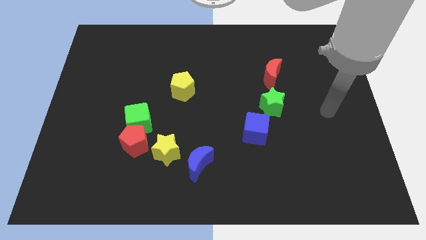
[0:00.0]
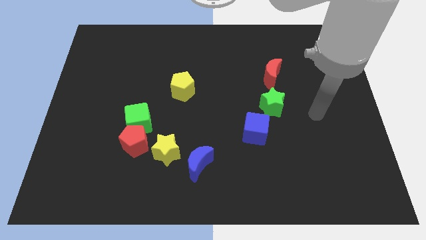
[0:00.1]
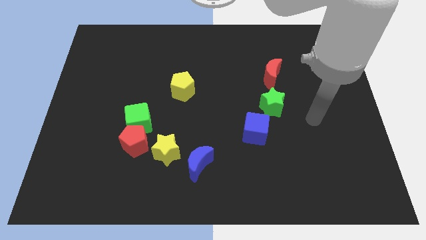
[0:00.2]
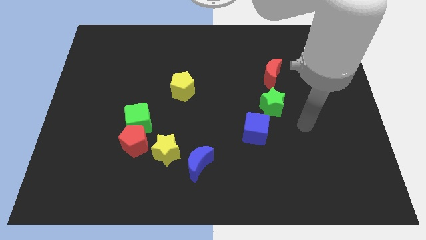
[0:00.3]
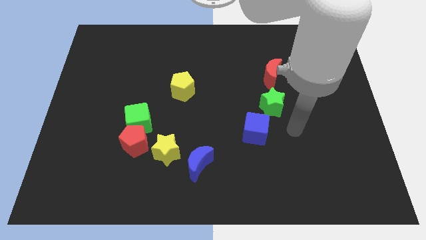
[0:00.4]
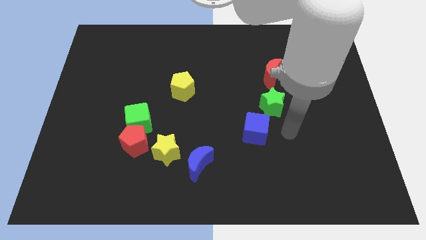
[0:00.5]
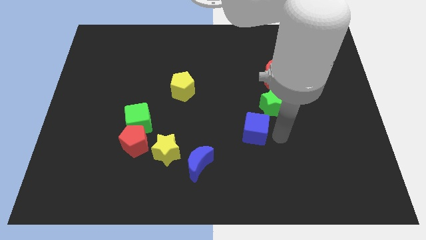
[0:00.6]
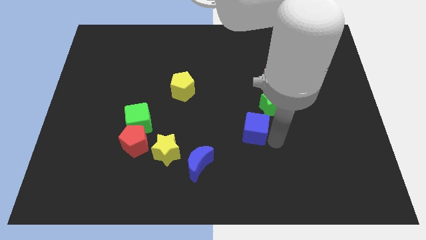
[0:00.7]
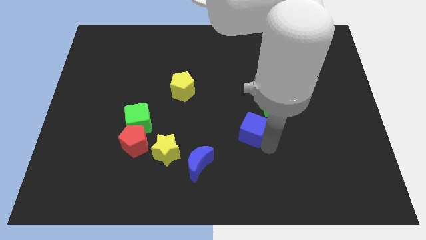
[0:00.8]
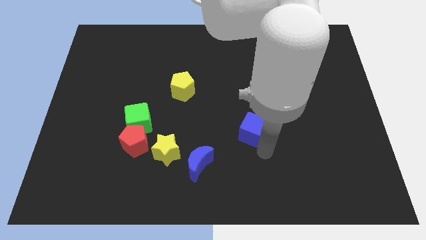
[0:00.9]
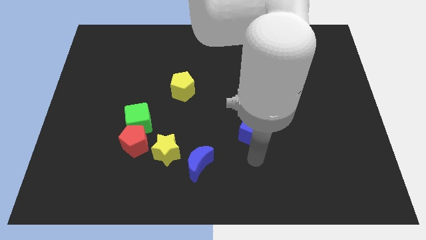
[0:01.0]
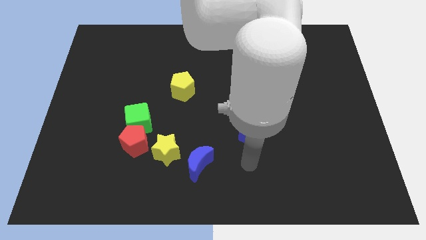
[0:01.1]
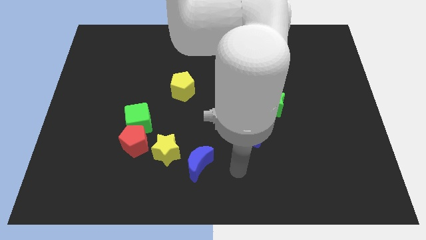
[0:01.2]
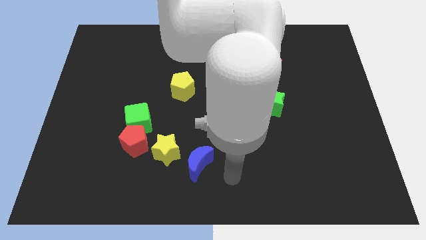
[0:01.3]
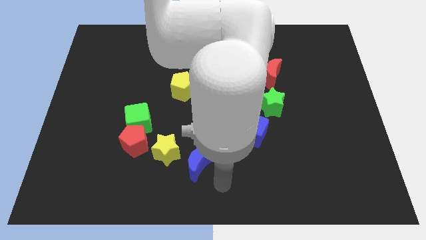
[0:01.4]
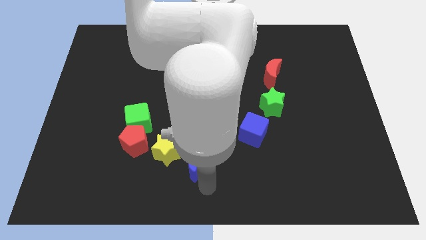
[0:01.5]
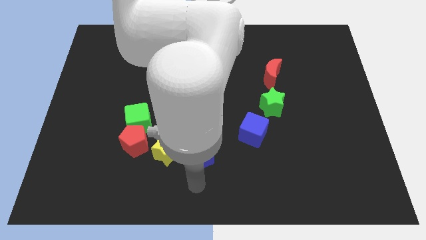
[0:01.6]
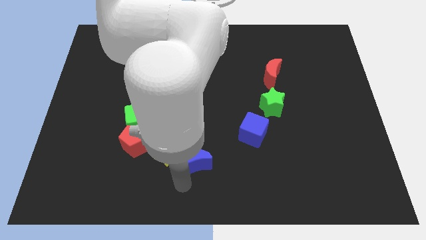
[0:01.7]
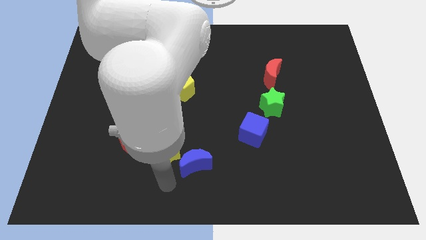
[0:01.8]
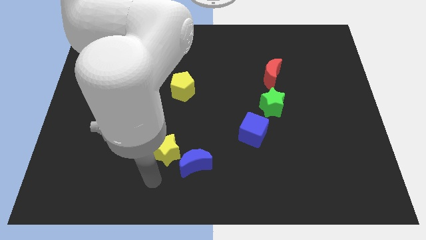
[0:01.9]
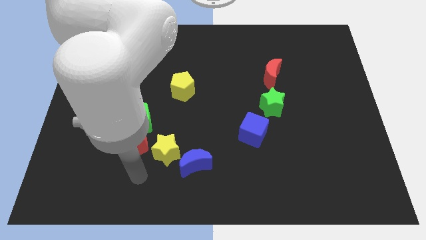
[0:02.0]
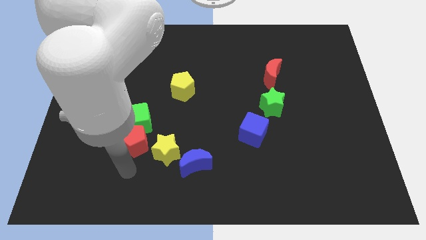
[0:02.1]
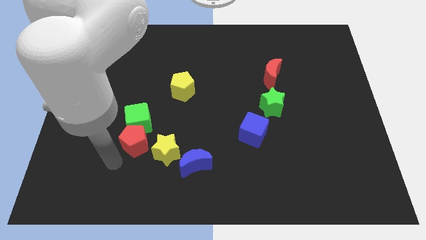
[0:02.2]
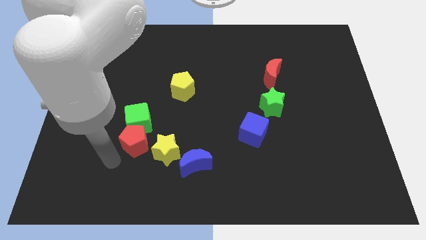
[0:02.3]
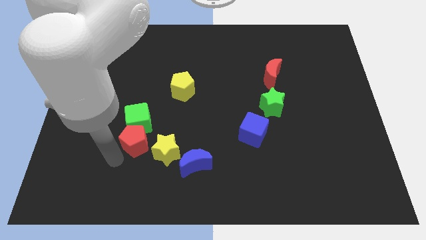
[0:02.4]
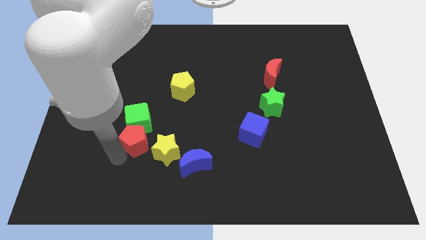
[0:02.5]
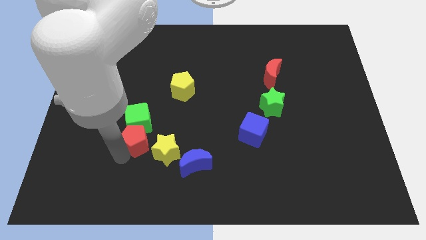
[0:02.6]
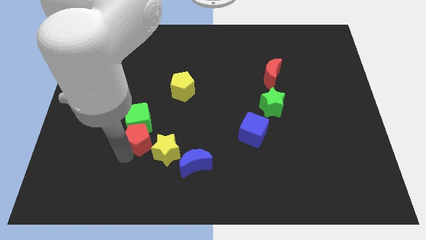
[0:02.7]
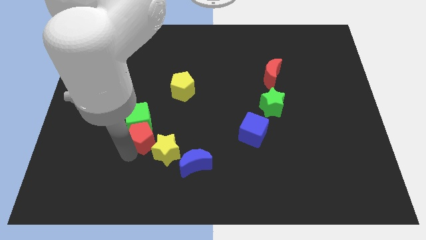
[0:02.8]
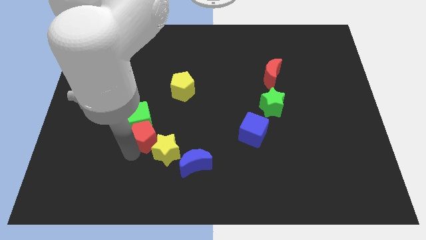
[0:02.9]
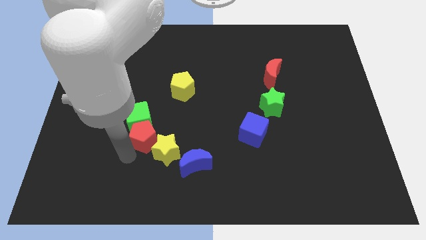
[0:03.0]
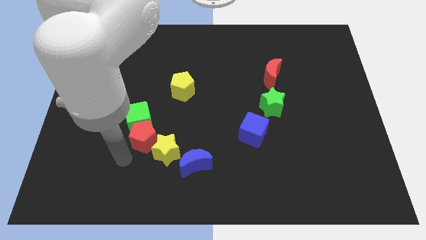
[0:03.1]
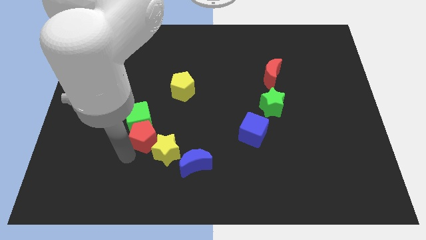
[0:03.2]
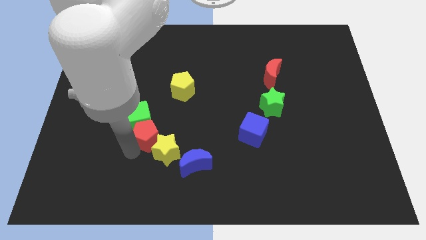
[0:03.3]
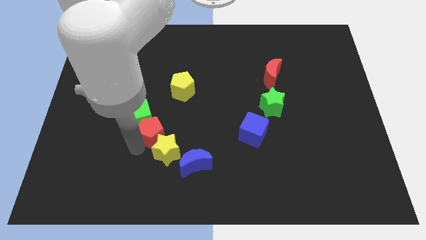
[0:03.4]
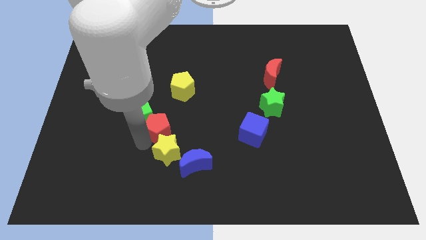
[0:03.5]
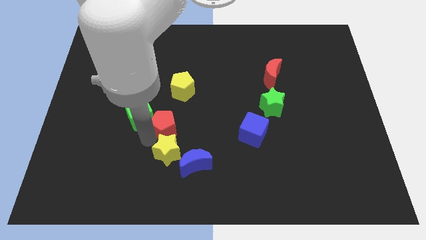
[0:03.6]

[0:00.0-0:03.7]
slightly push the red pentagon up and right

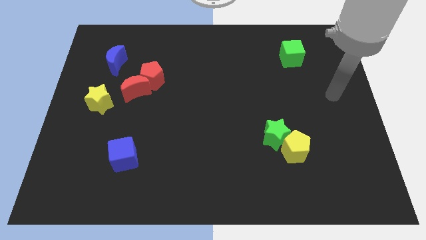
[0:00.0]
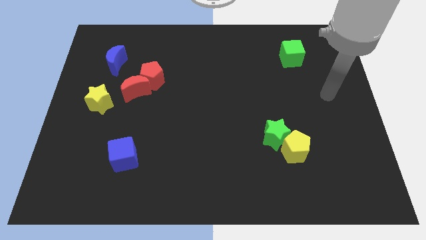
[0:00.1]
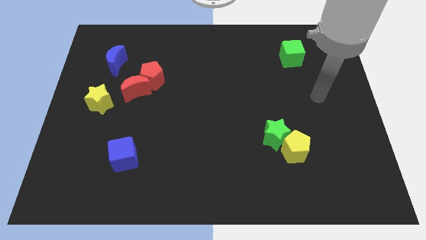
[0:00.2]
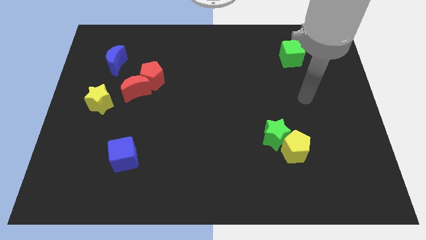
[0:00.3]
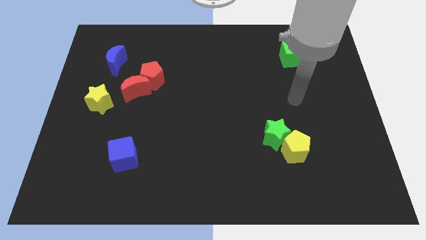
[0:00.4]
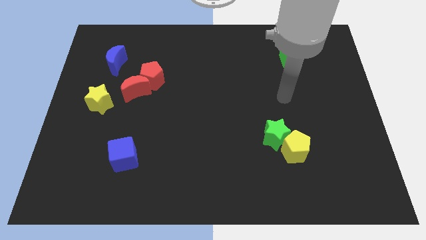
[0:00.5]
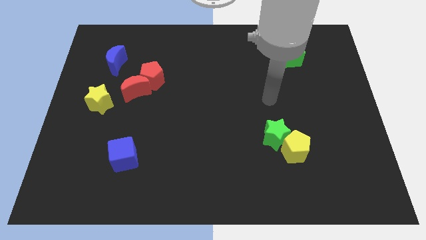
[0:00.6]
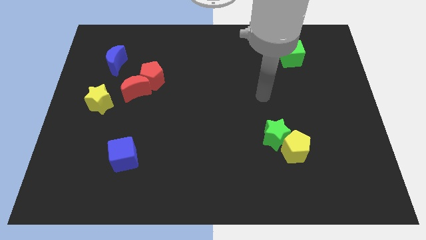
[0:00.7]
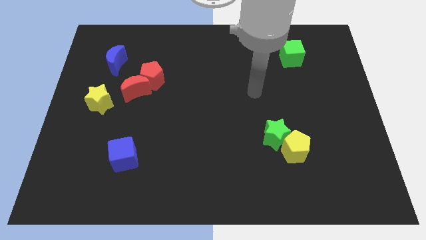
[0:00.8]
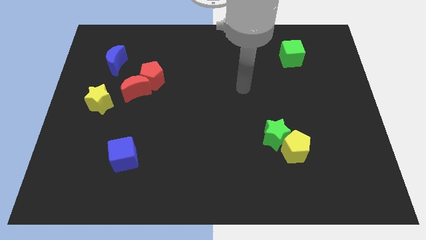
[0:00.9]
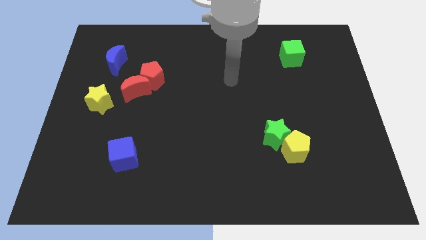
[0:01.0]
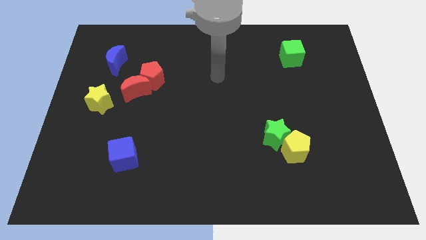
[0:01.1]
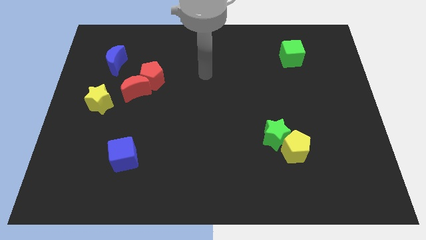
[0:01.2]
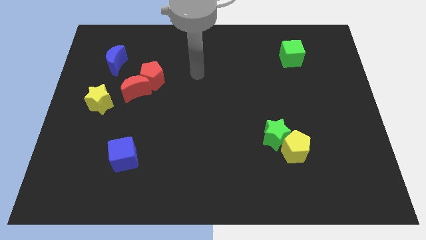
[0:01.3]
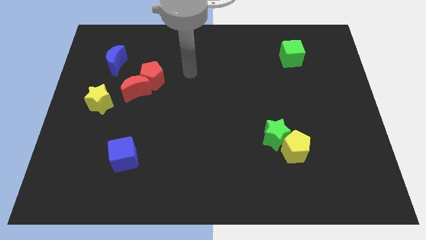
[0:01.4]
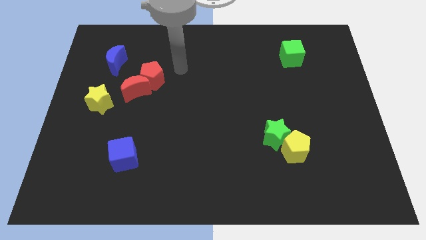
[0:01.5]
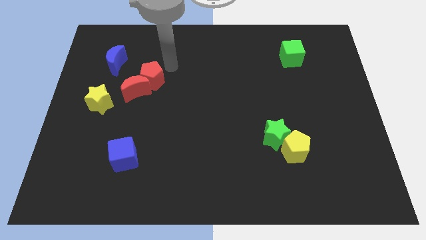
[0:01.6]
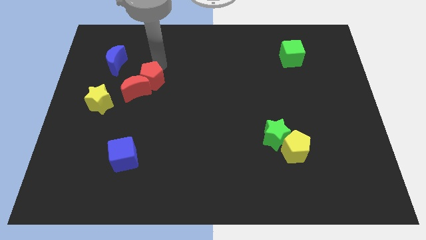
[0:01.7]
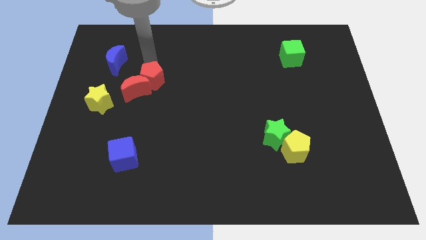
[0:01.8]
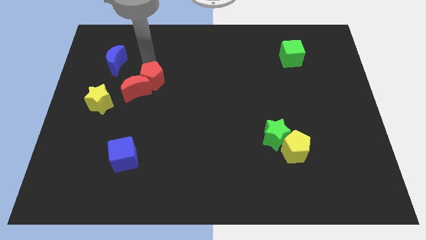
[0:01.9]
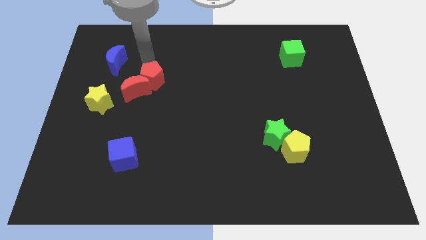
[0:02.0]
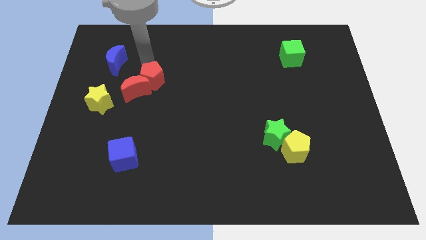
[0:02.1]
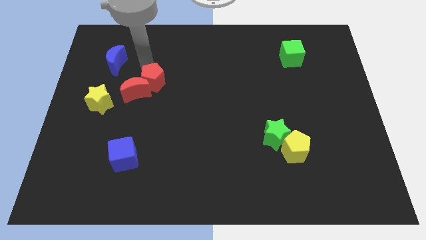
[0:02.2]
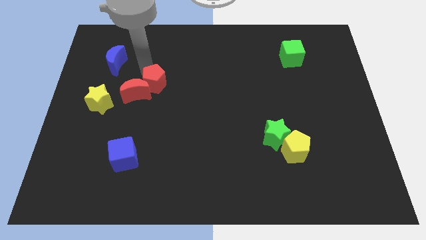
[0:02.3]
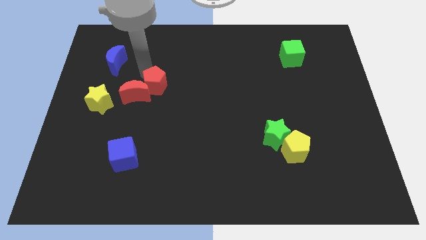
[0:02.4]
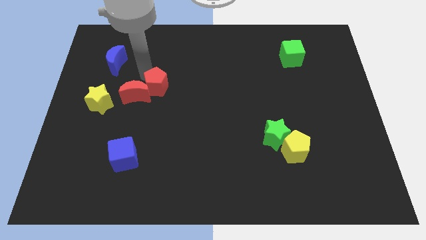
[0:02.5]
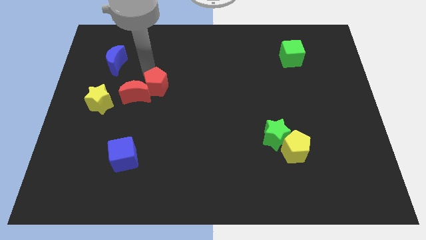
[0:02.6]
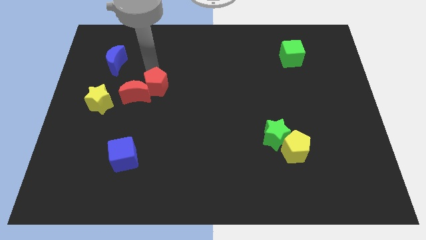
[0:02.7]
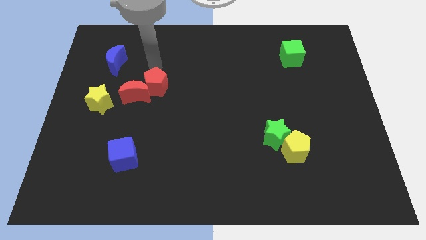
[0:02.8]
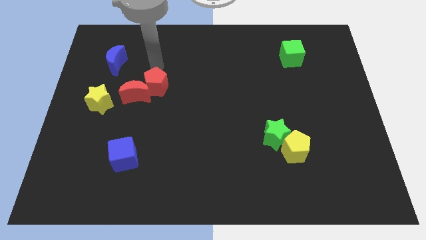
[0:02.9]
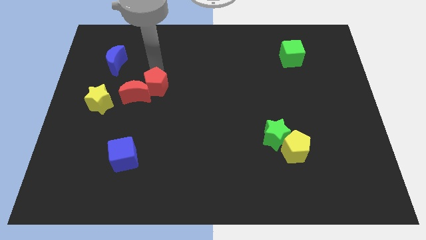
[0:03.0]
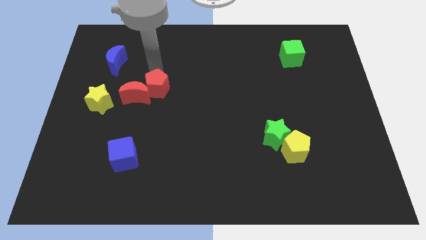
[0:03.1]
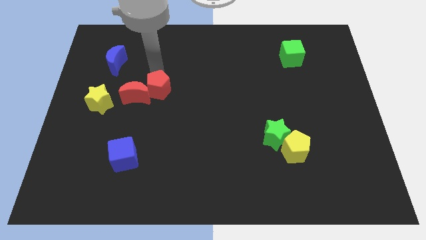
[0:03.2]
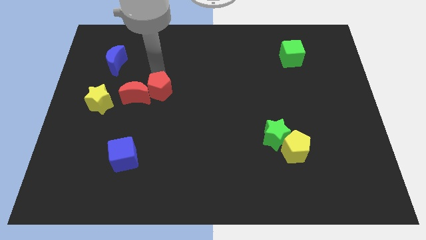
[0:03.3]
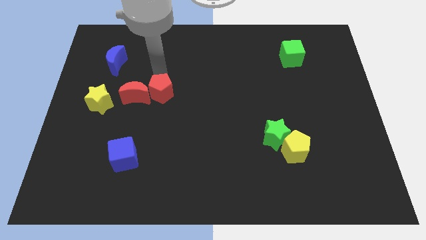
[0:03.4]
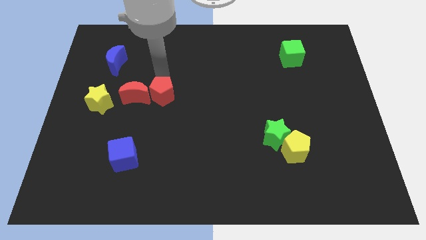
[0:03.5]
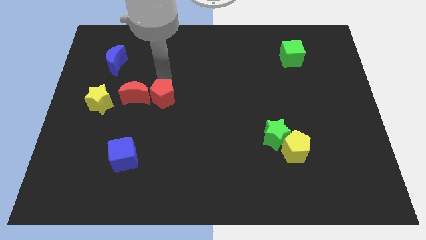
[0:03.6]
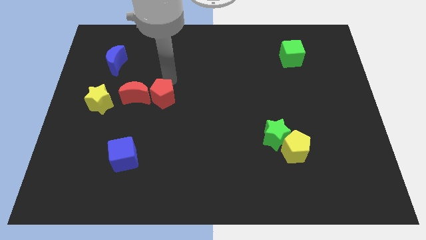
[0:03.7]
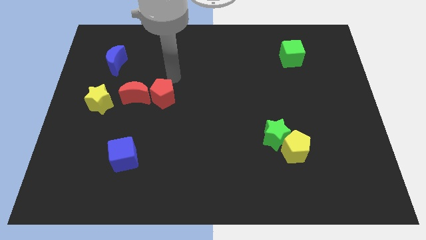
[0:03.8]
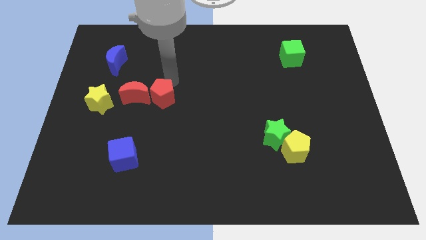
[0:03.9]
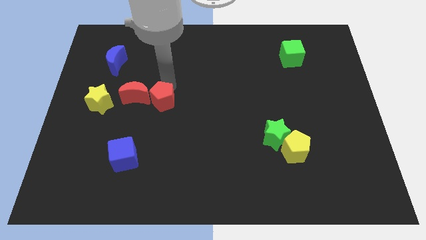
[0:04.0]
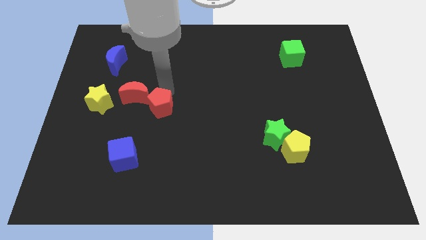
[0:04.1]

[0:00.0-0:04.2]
slightly push the red pentagon down
